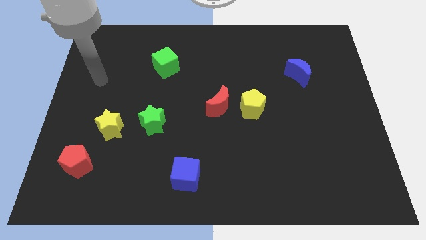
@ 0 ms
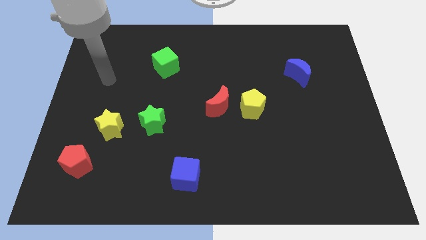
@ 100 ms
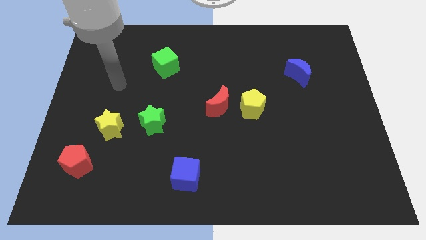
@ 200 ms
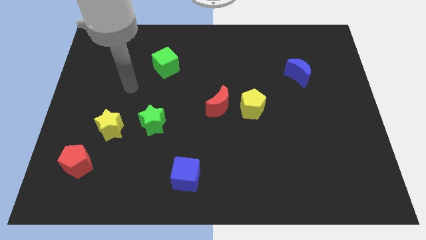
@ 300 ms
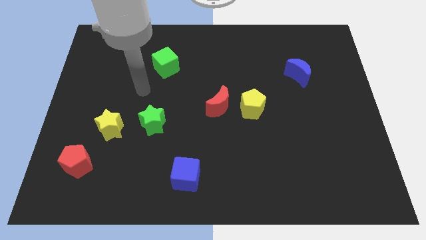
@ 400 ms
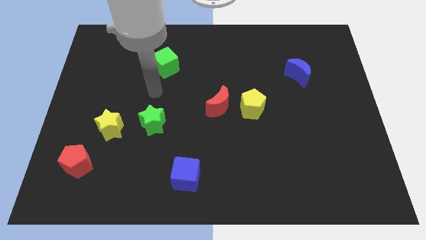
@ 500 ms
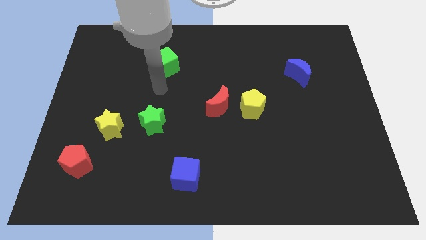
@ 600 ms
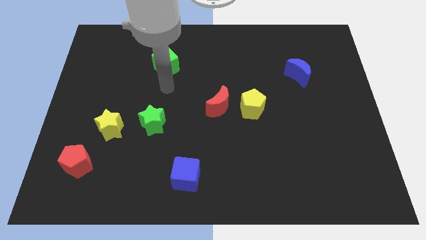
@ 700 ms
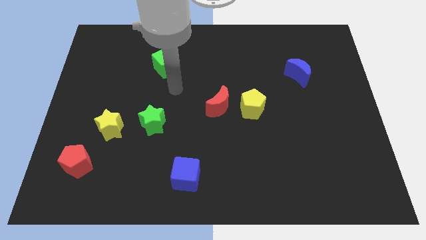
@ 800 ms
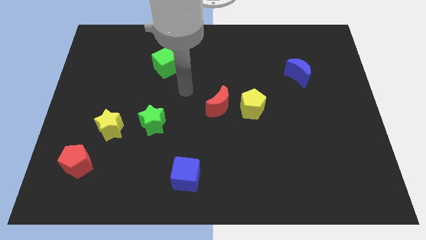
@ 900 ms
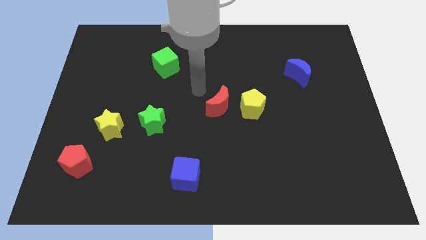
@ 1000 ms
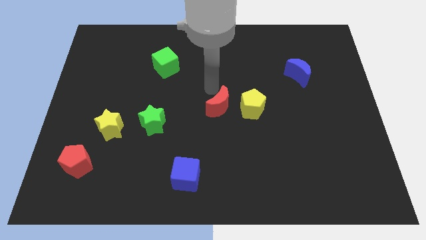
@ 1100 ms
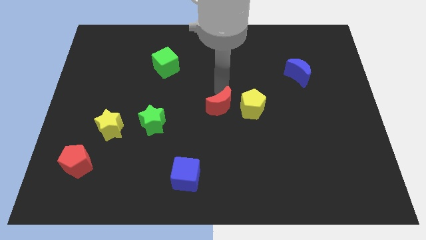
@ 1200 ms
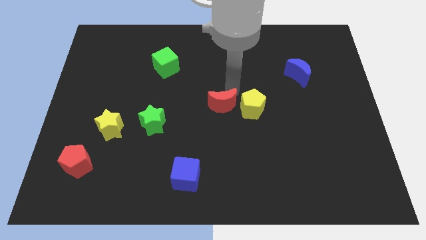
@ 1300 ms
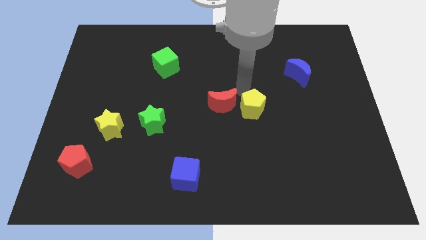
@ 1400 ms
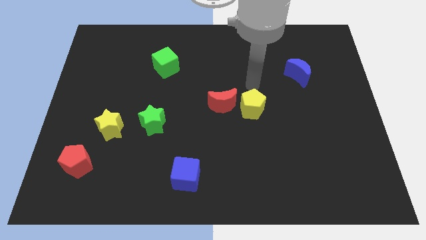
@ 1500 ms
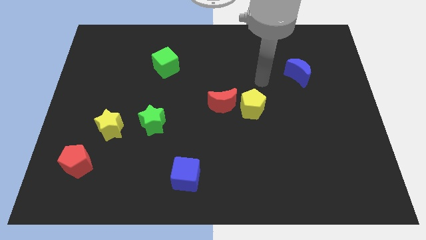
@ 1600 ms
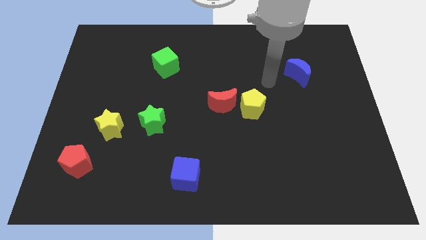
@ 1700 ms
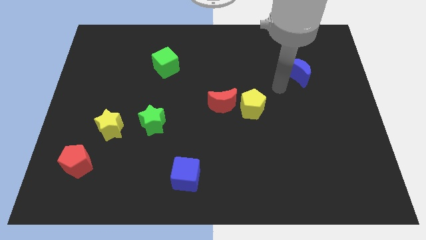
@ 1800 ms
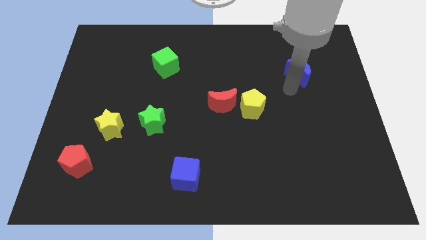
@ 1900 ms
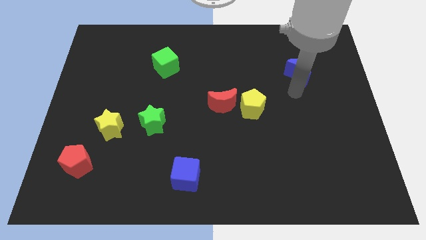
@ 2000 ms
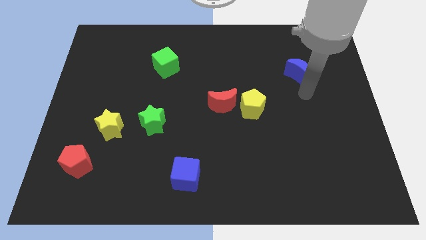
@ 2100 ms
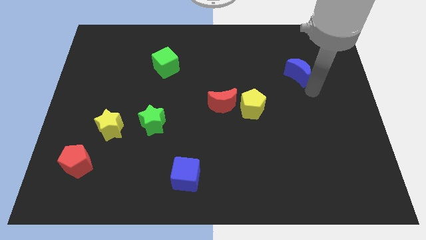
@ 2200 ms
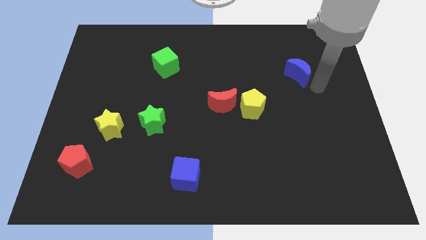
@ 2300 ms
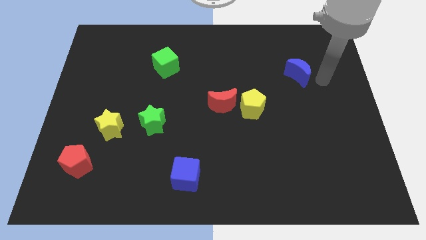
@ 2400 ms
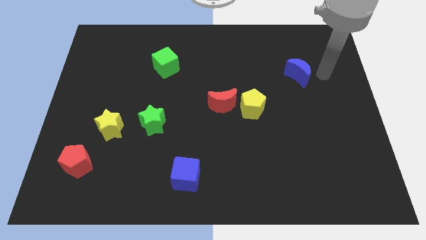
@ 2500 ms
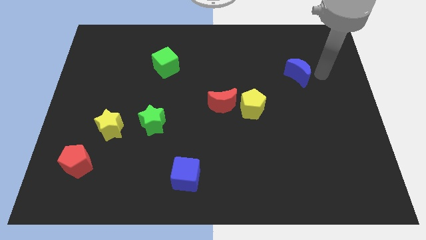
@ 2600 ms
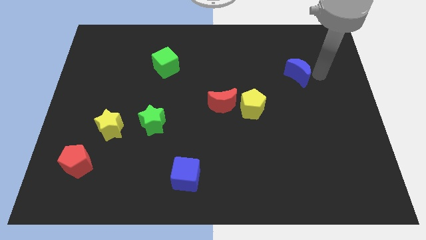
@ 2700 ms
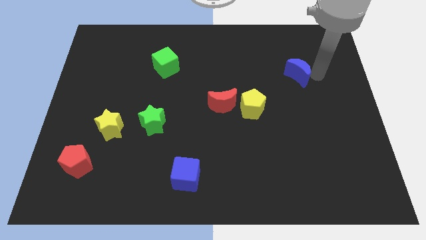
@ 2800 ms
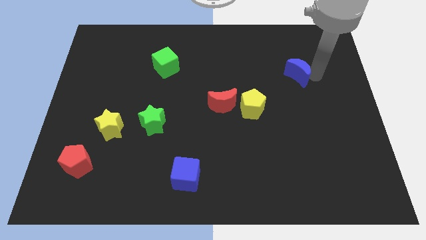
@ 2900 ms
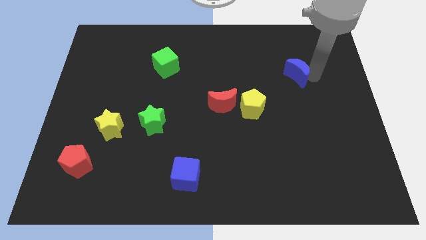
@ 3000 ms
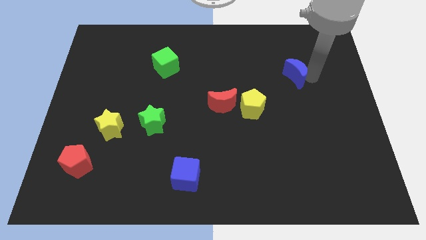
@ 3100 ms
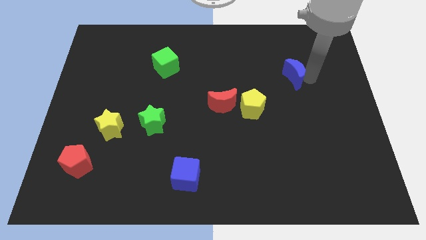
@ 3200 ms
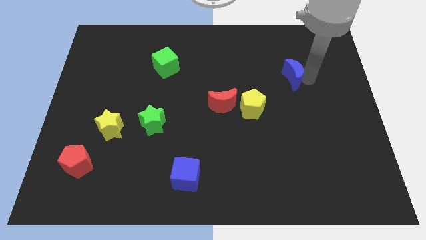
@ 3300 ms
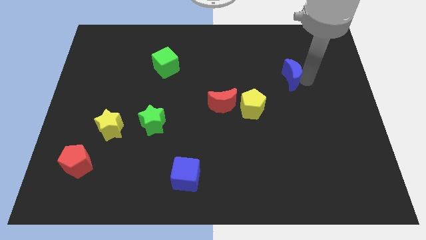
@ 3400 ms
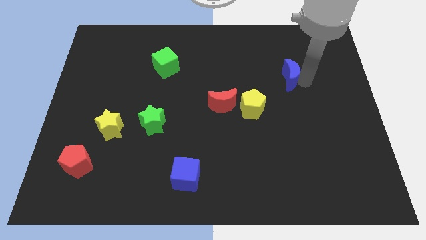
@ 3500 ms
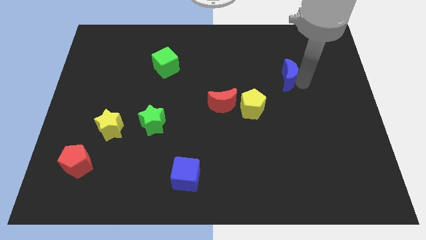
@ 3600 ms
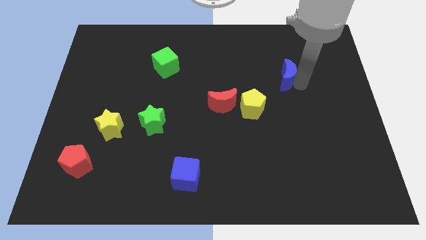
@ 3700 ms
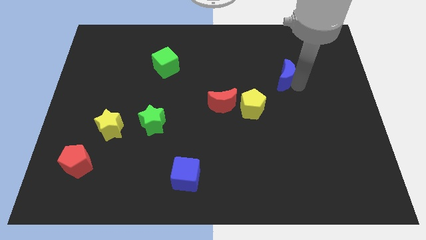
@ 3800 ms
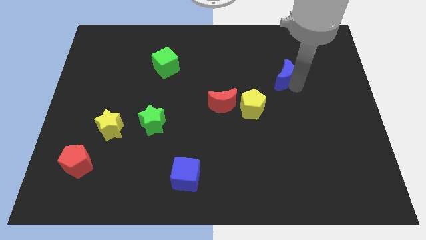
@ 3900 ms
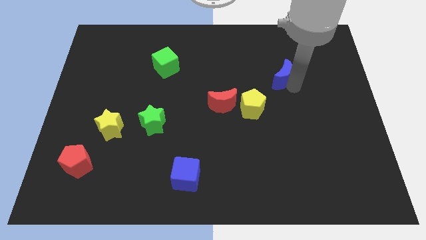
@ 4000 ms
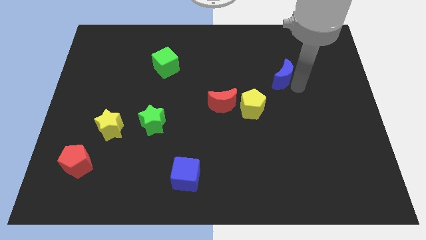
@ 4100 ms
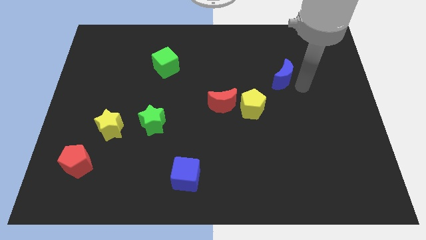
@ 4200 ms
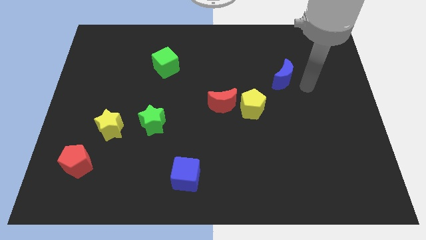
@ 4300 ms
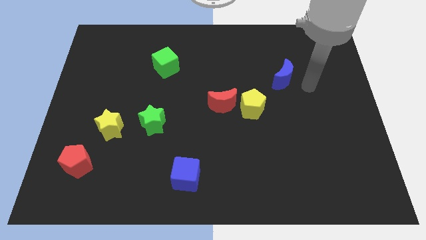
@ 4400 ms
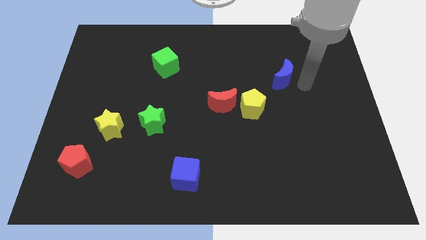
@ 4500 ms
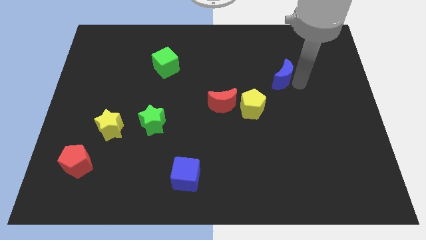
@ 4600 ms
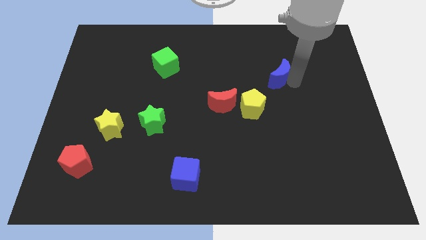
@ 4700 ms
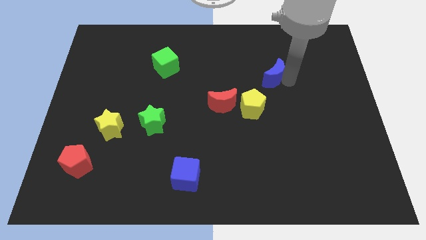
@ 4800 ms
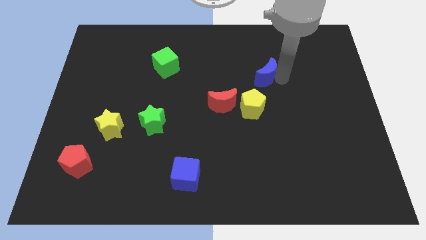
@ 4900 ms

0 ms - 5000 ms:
move the blue moon to the top side of the yellow pentagon

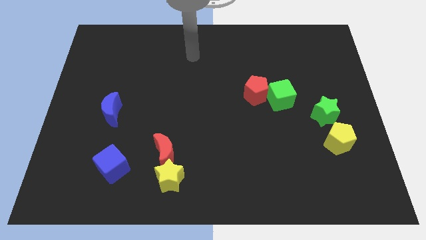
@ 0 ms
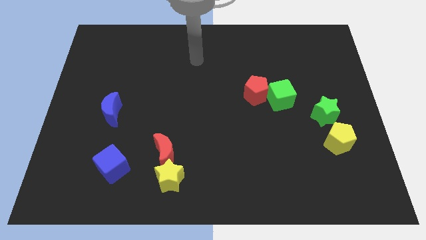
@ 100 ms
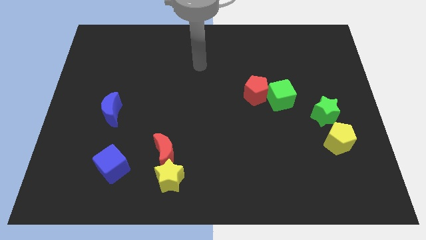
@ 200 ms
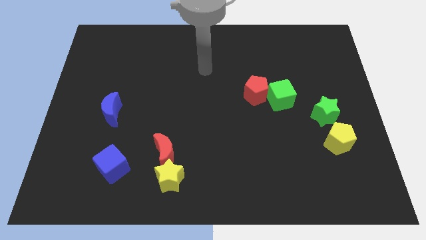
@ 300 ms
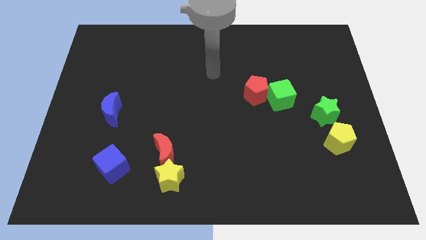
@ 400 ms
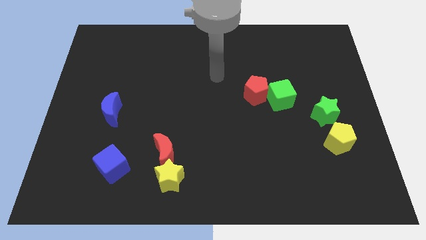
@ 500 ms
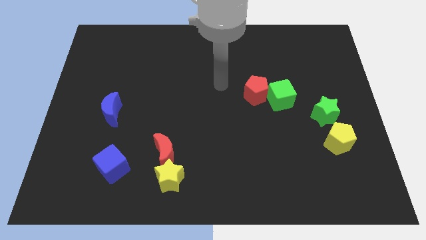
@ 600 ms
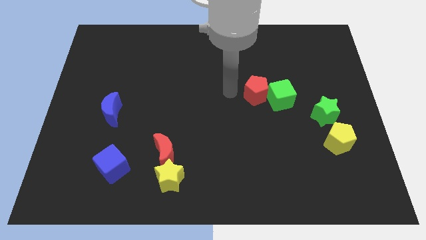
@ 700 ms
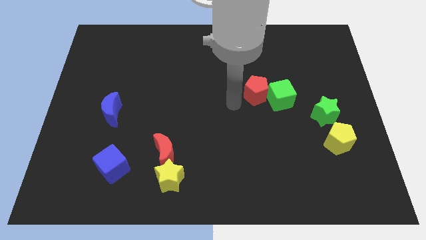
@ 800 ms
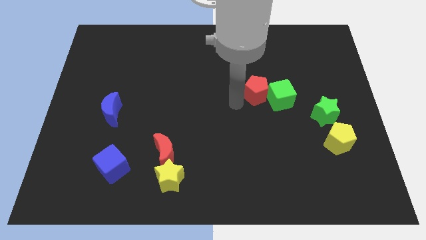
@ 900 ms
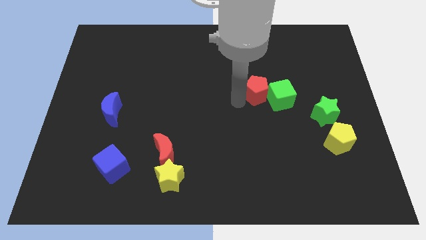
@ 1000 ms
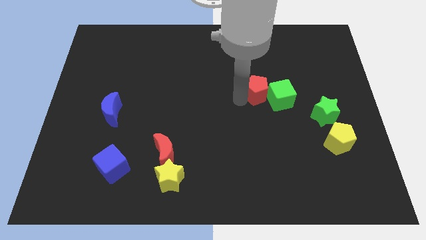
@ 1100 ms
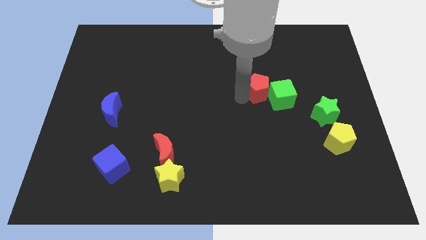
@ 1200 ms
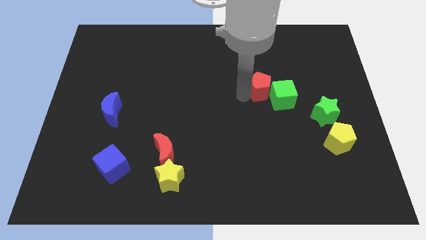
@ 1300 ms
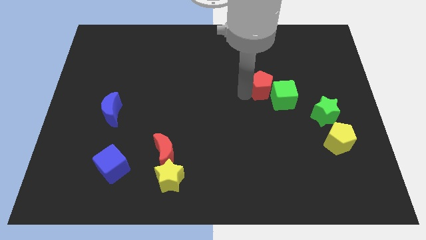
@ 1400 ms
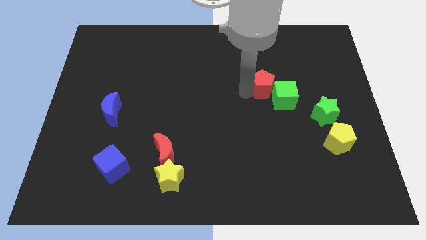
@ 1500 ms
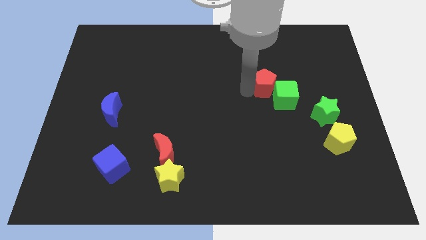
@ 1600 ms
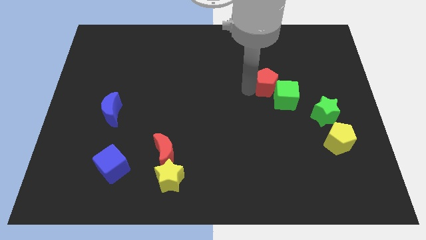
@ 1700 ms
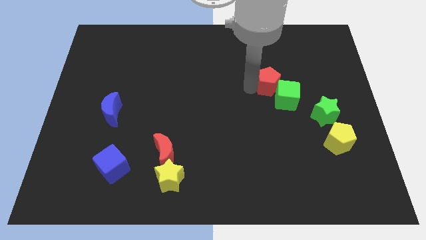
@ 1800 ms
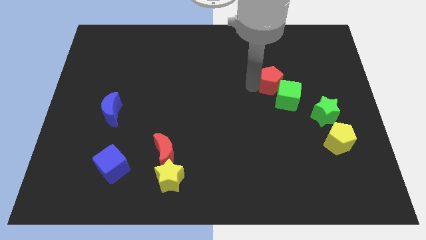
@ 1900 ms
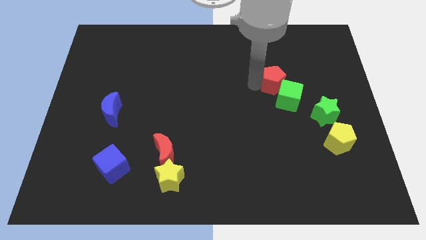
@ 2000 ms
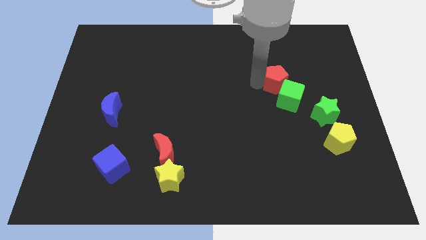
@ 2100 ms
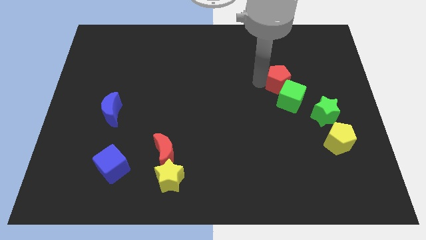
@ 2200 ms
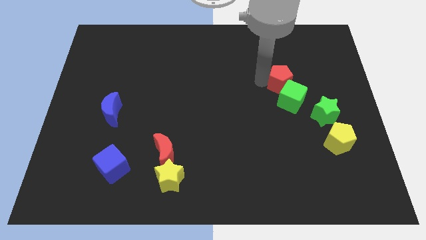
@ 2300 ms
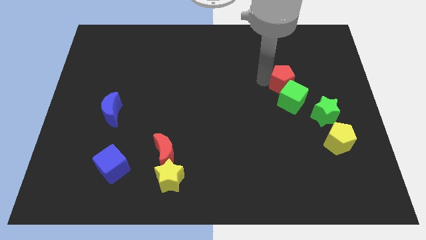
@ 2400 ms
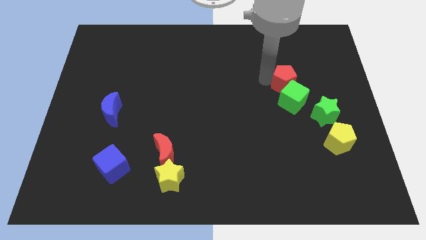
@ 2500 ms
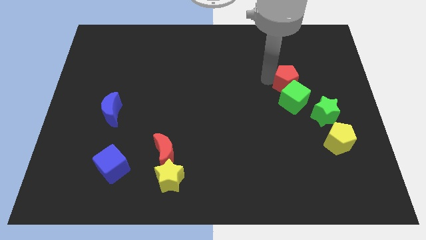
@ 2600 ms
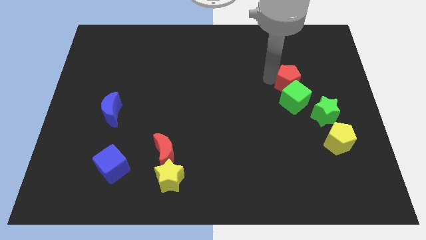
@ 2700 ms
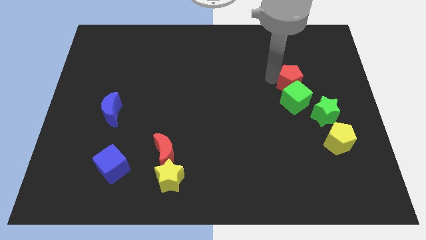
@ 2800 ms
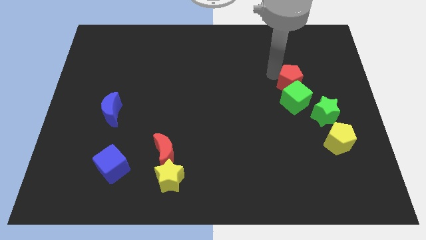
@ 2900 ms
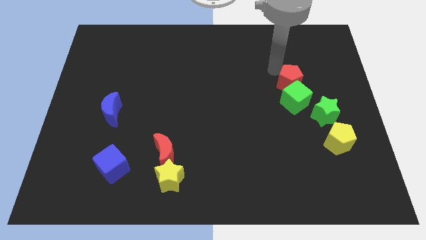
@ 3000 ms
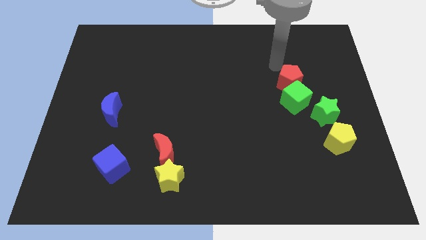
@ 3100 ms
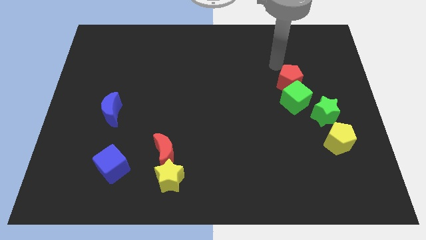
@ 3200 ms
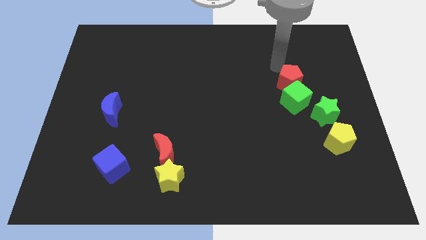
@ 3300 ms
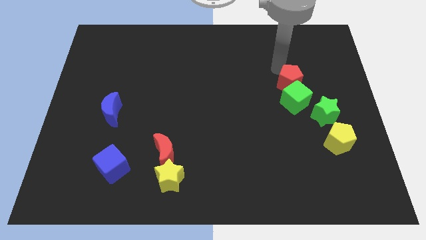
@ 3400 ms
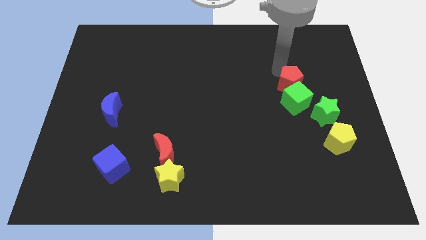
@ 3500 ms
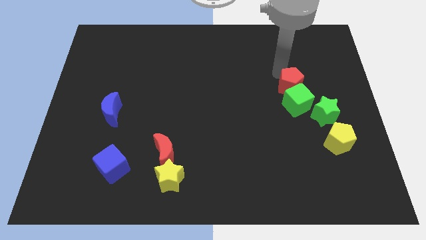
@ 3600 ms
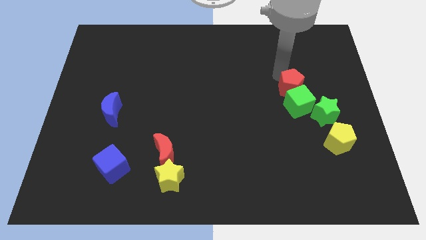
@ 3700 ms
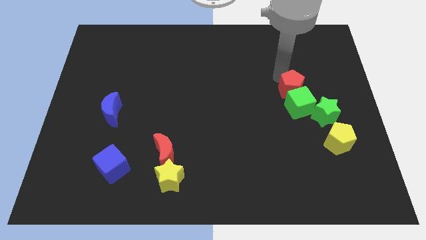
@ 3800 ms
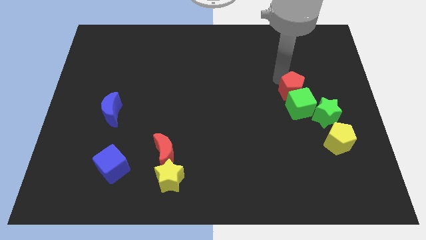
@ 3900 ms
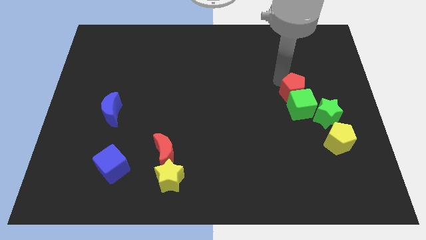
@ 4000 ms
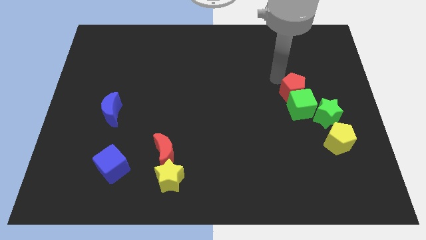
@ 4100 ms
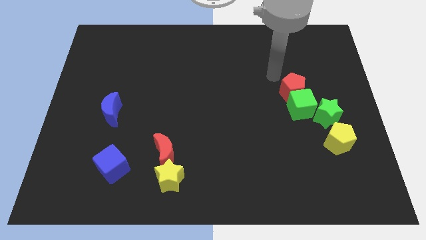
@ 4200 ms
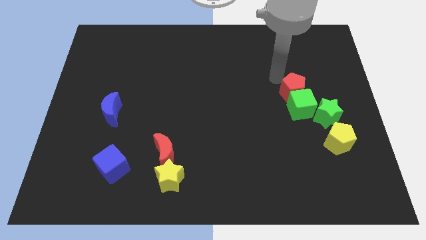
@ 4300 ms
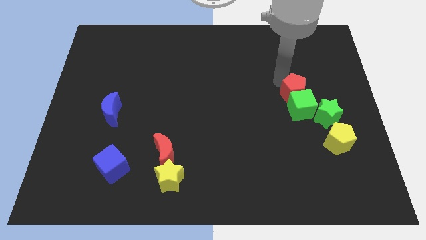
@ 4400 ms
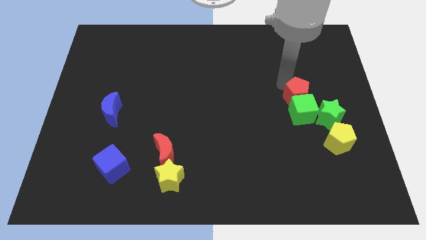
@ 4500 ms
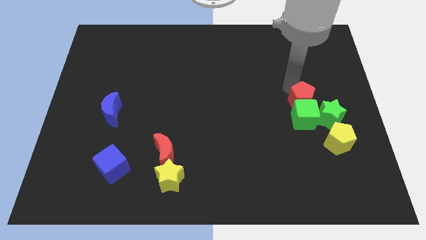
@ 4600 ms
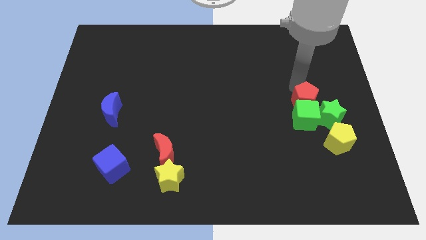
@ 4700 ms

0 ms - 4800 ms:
put the red pentagon to the left of the green star
